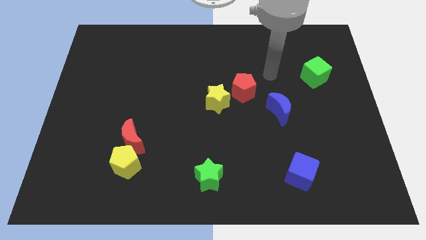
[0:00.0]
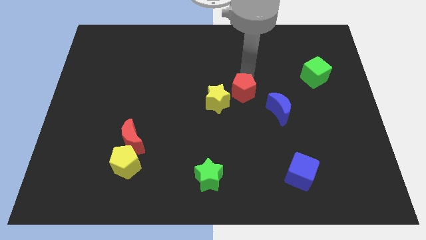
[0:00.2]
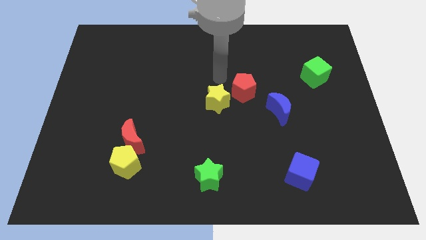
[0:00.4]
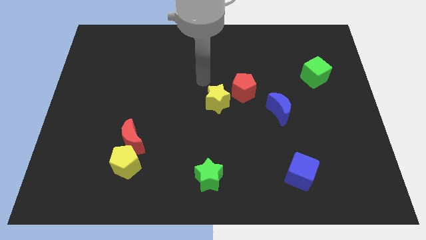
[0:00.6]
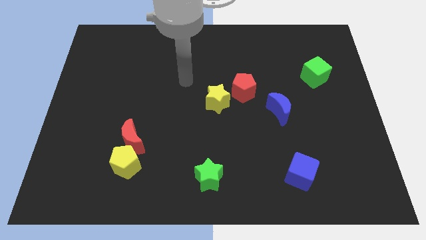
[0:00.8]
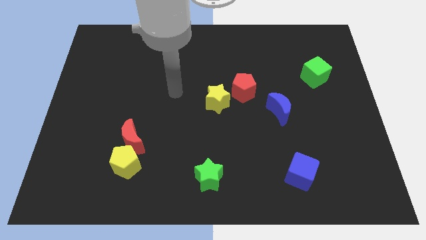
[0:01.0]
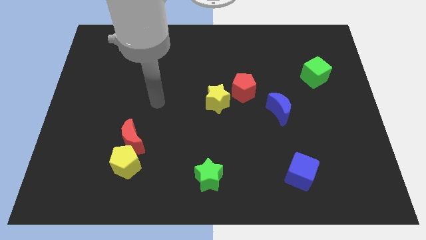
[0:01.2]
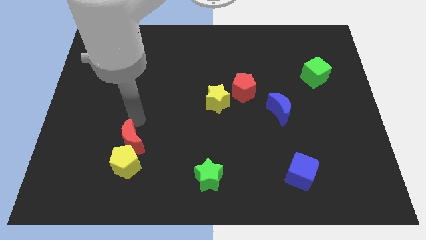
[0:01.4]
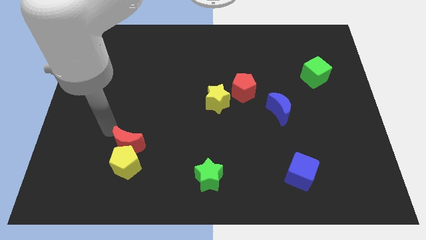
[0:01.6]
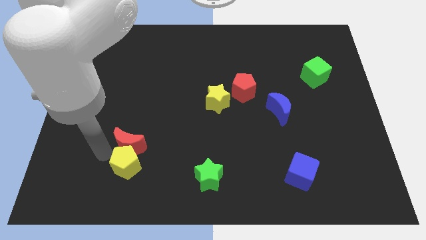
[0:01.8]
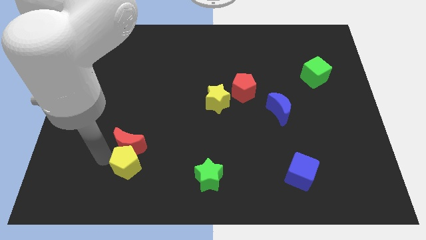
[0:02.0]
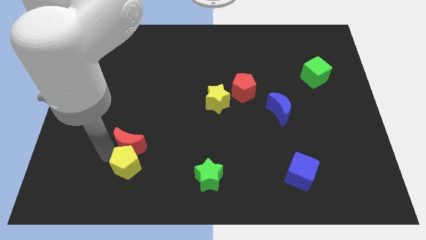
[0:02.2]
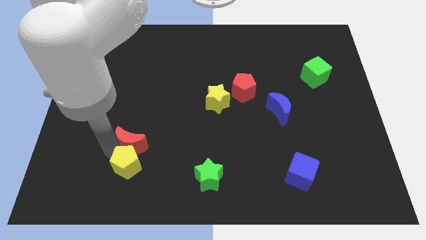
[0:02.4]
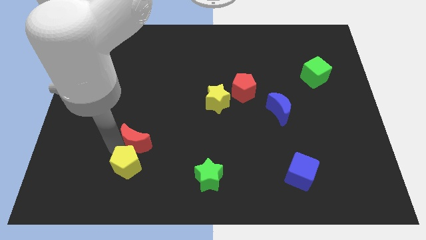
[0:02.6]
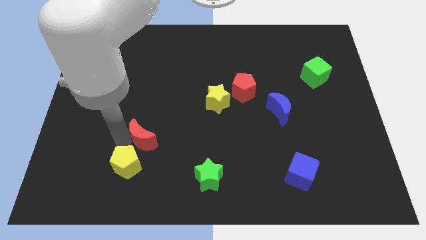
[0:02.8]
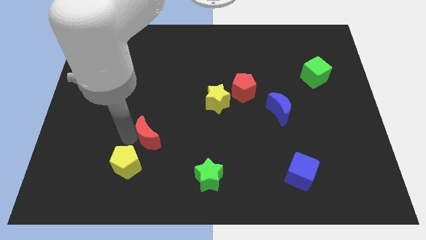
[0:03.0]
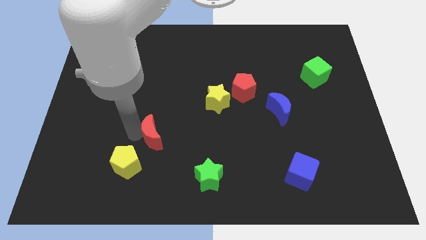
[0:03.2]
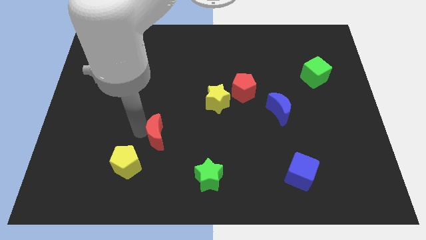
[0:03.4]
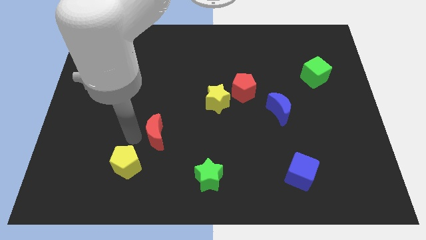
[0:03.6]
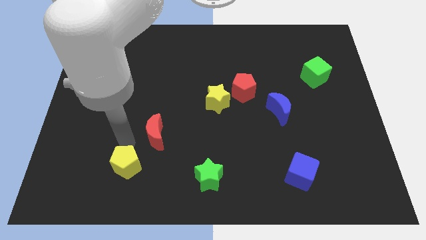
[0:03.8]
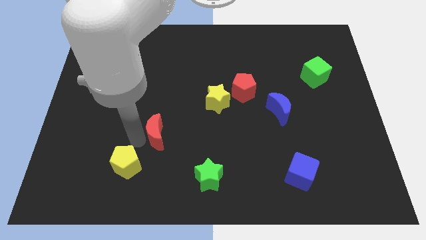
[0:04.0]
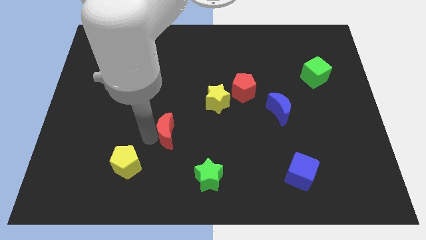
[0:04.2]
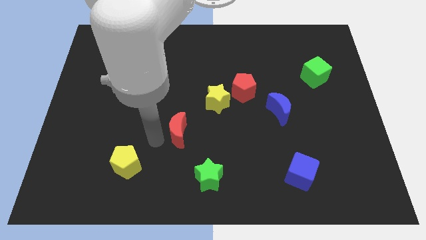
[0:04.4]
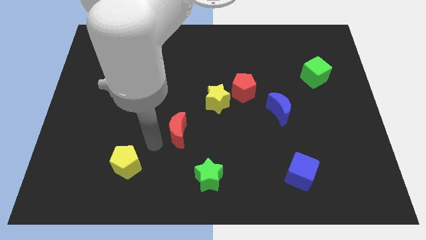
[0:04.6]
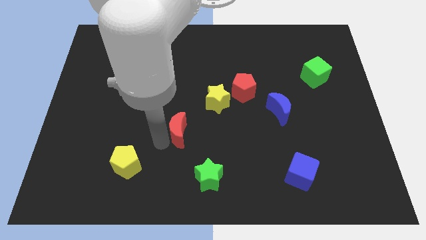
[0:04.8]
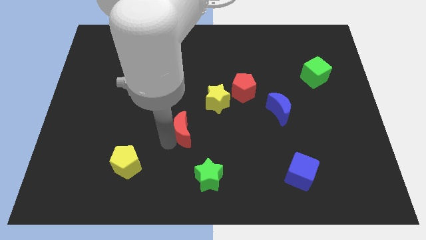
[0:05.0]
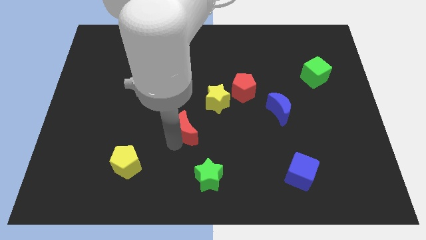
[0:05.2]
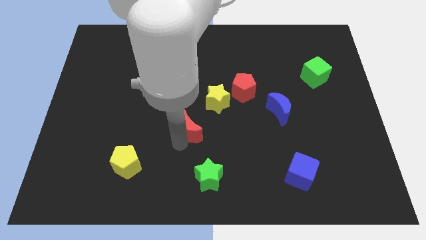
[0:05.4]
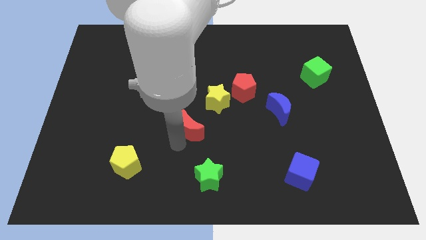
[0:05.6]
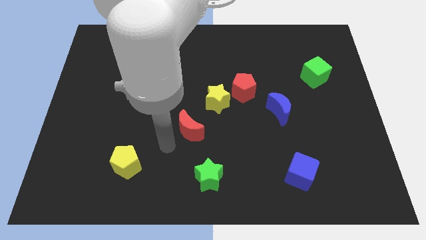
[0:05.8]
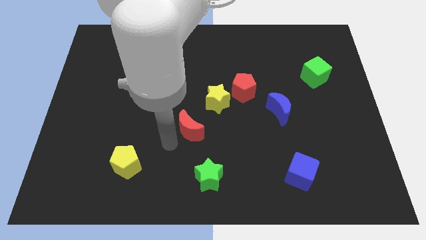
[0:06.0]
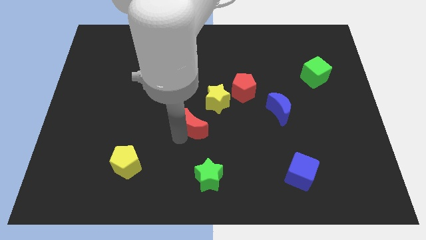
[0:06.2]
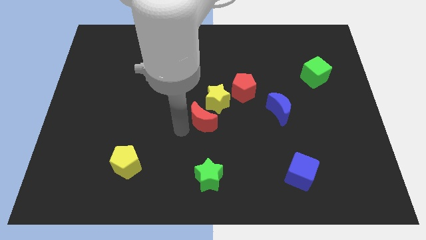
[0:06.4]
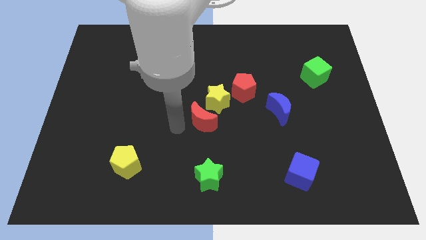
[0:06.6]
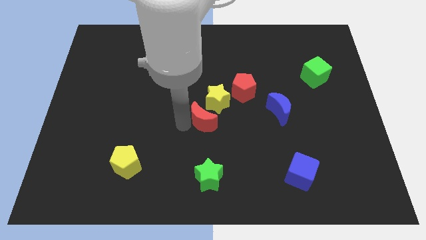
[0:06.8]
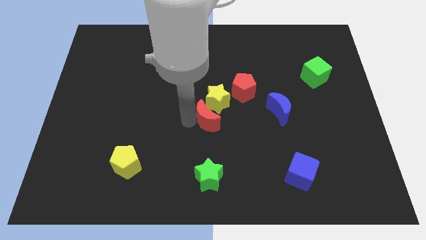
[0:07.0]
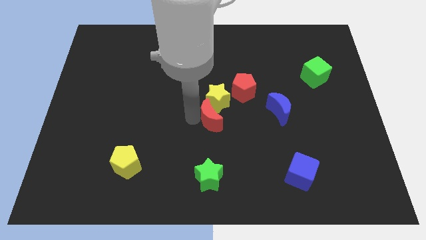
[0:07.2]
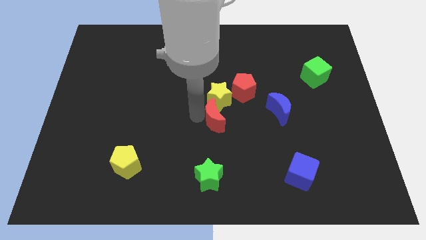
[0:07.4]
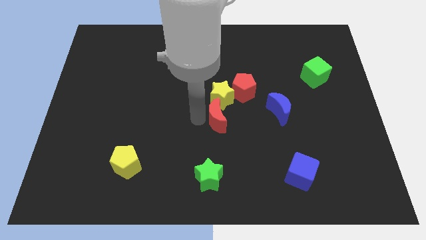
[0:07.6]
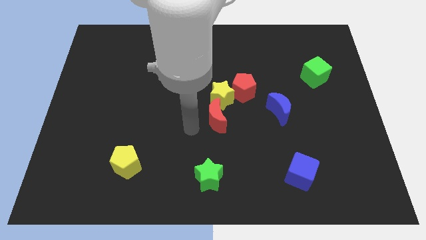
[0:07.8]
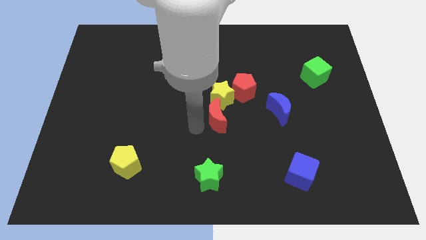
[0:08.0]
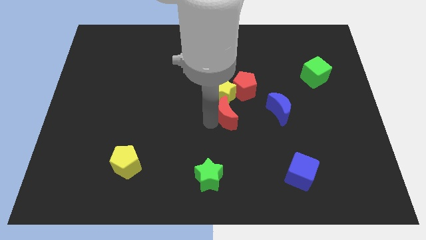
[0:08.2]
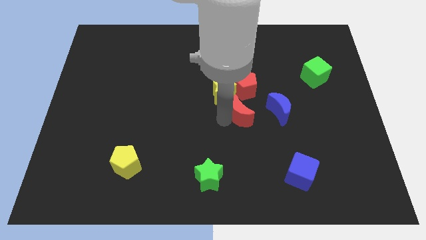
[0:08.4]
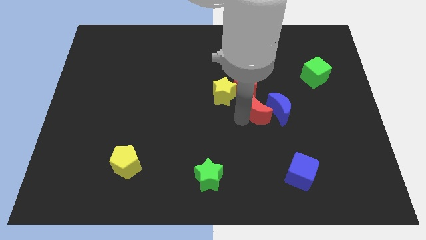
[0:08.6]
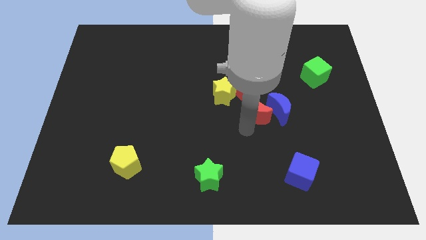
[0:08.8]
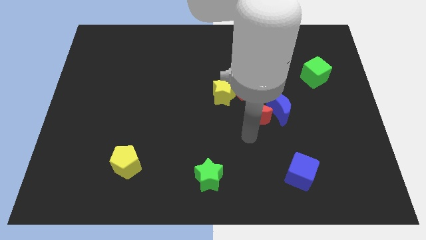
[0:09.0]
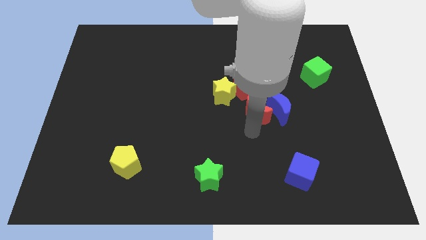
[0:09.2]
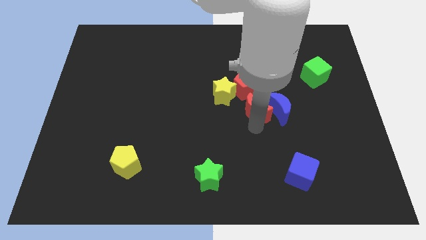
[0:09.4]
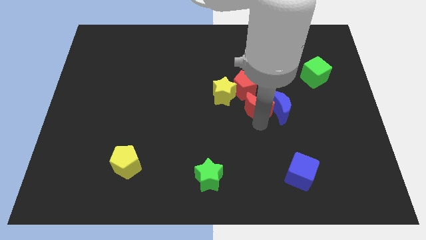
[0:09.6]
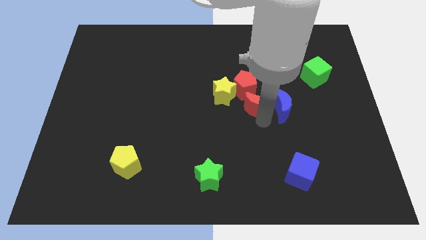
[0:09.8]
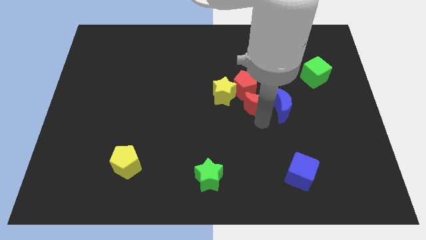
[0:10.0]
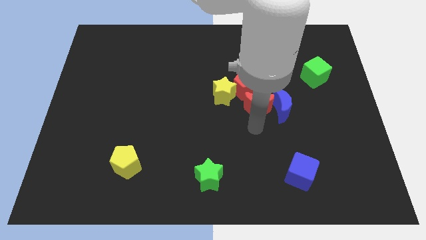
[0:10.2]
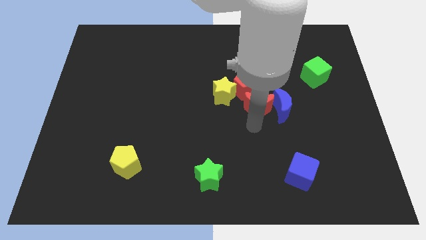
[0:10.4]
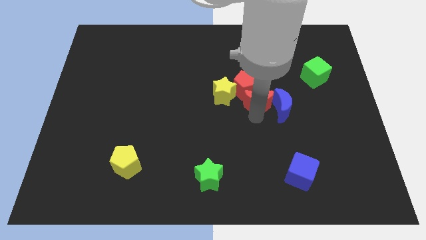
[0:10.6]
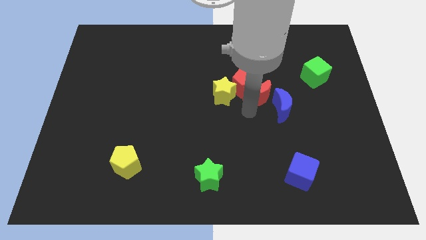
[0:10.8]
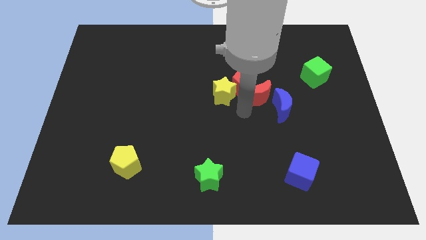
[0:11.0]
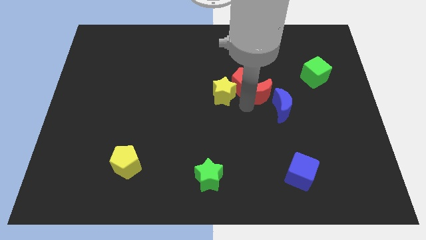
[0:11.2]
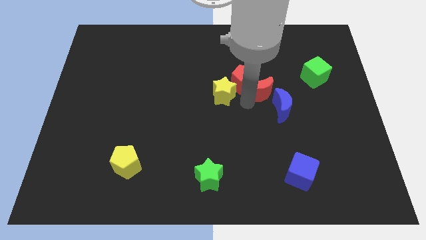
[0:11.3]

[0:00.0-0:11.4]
put the red moon to the top of the blue moon

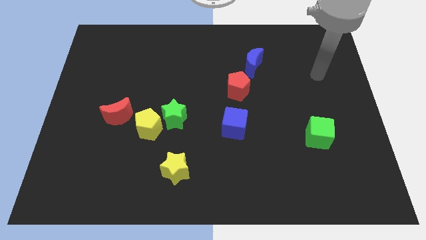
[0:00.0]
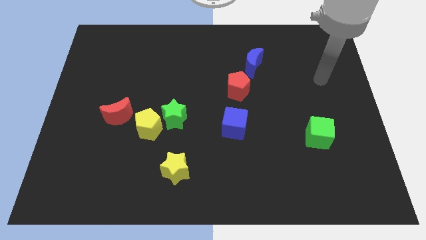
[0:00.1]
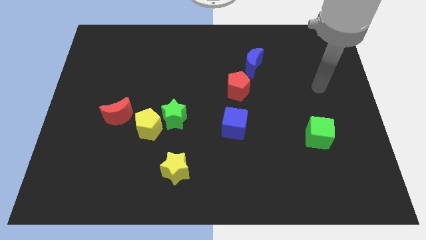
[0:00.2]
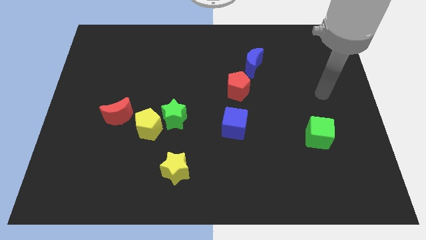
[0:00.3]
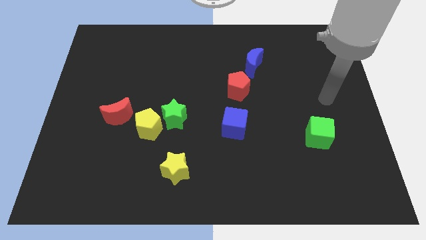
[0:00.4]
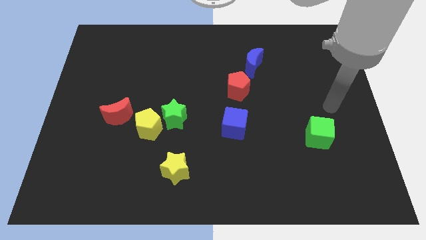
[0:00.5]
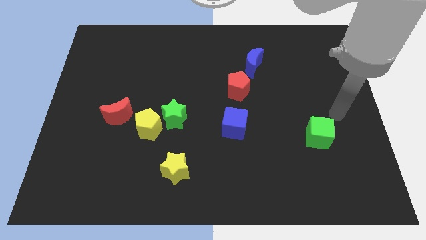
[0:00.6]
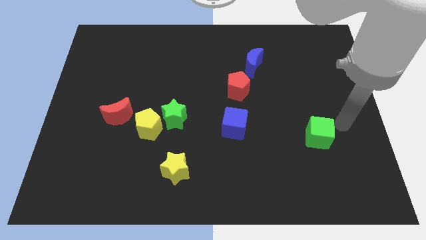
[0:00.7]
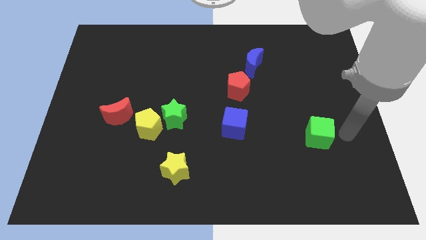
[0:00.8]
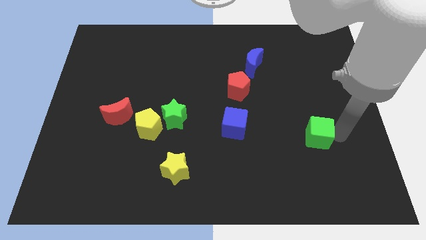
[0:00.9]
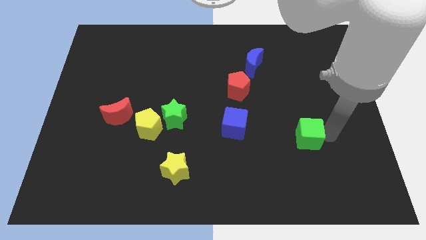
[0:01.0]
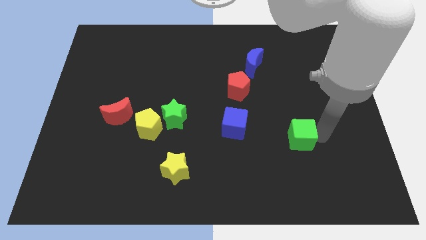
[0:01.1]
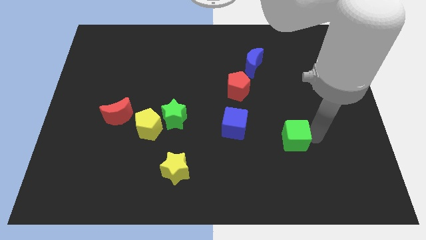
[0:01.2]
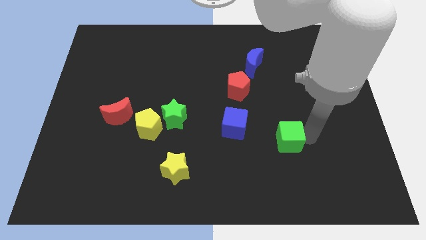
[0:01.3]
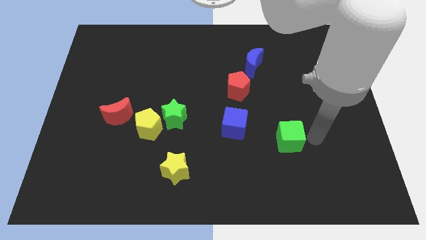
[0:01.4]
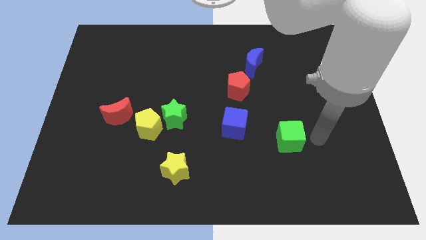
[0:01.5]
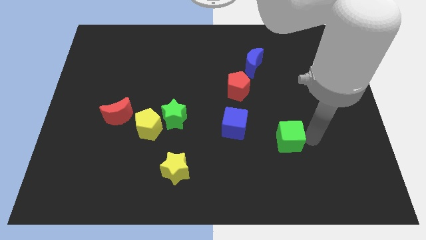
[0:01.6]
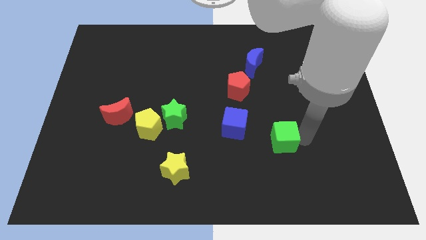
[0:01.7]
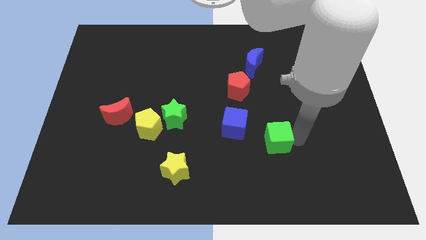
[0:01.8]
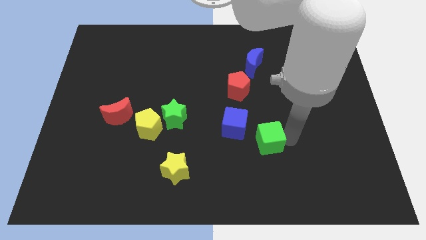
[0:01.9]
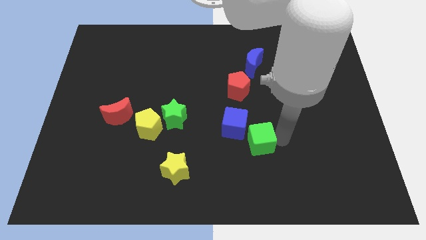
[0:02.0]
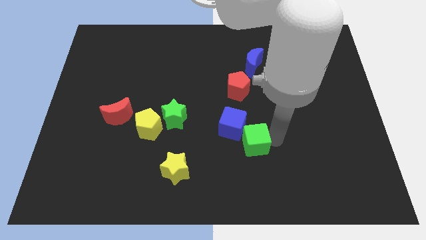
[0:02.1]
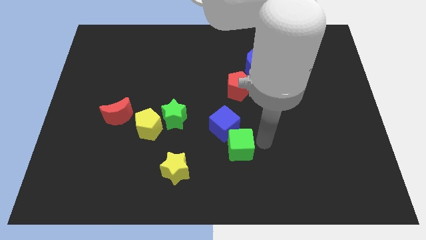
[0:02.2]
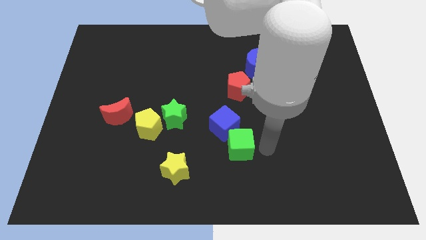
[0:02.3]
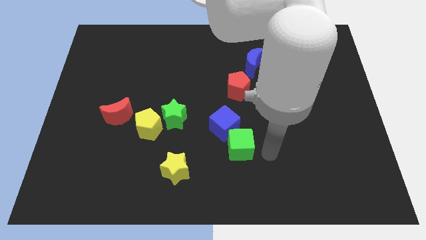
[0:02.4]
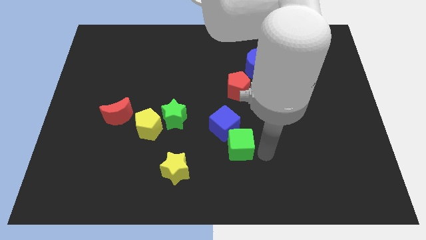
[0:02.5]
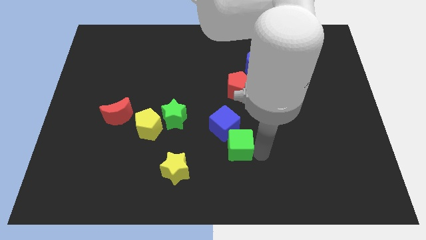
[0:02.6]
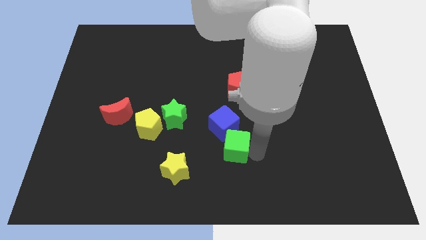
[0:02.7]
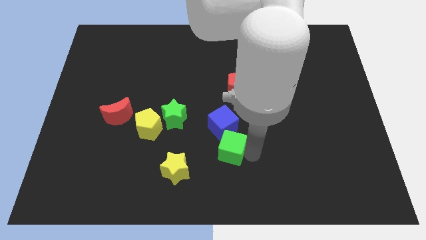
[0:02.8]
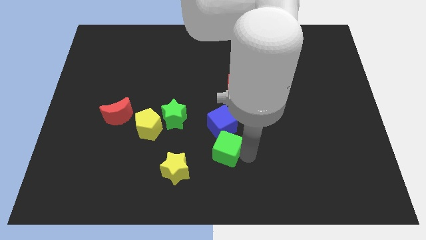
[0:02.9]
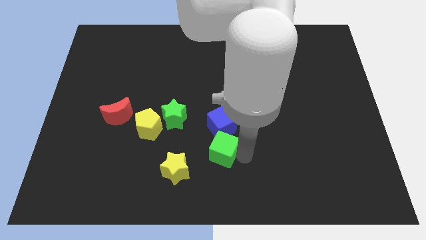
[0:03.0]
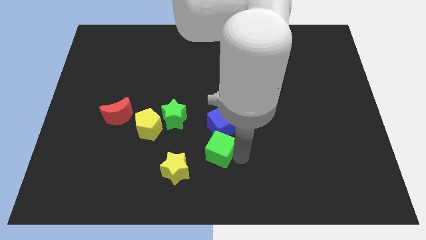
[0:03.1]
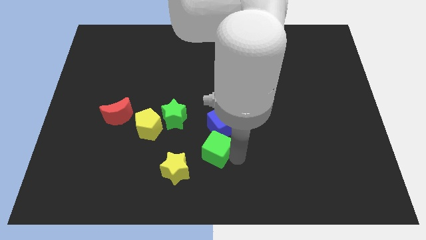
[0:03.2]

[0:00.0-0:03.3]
move the green cube to the bottom right side of the green star
